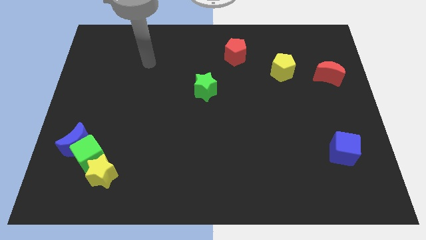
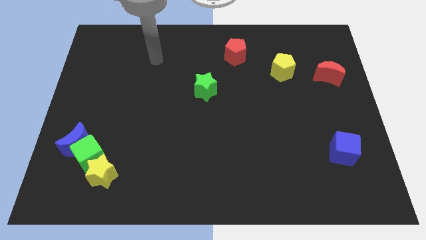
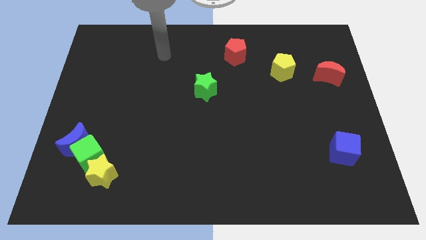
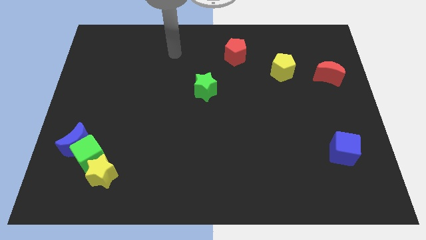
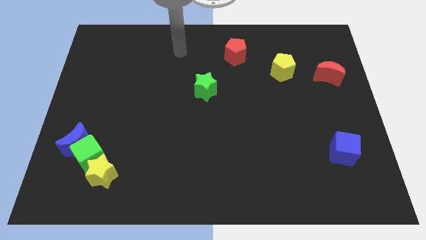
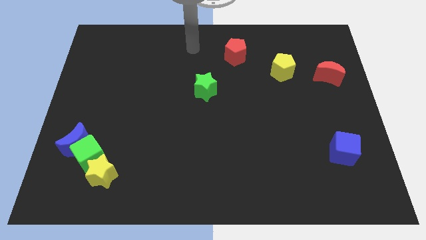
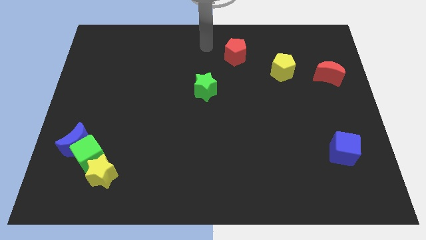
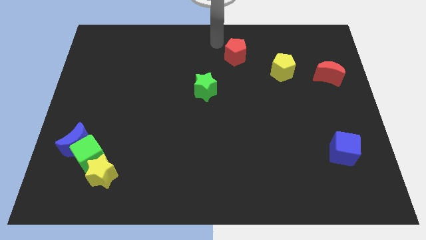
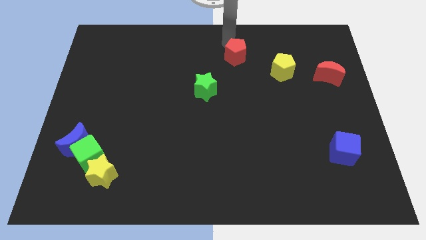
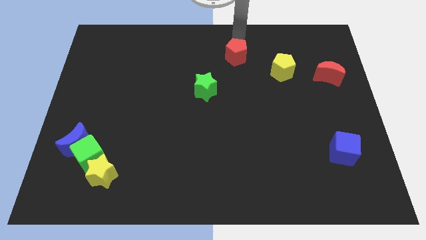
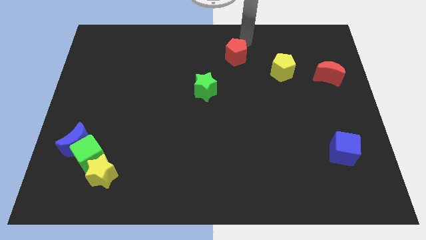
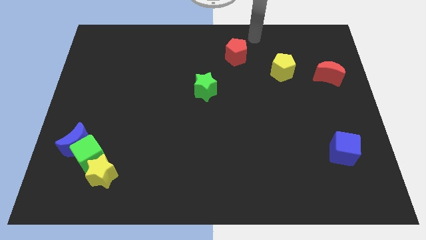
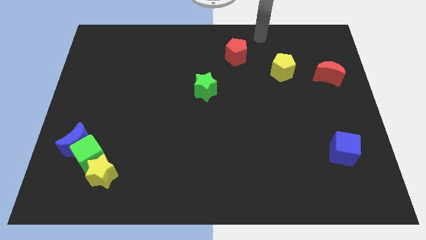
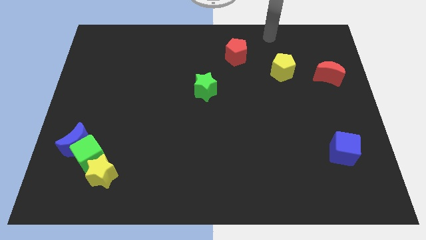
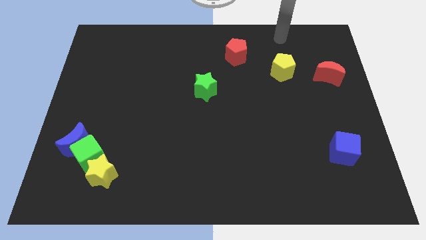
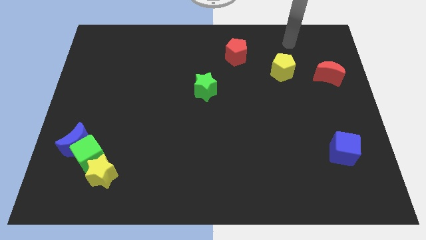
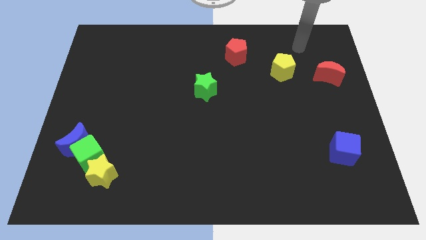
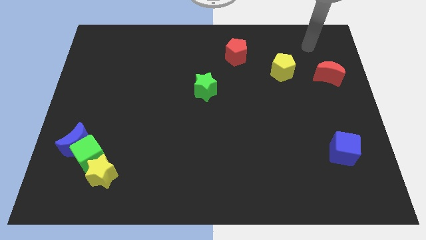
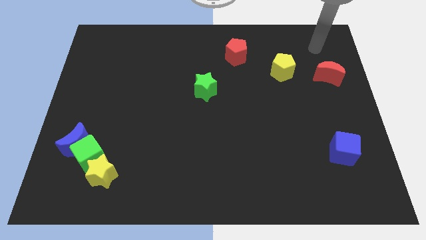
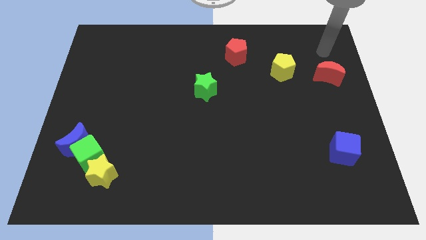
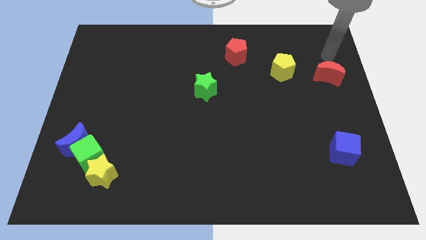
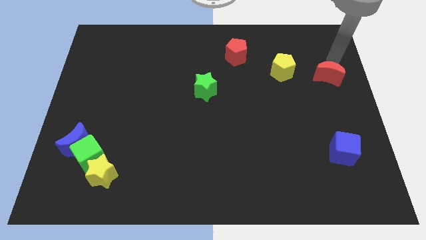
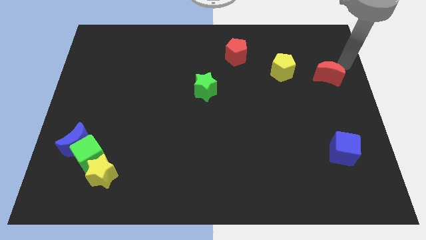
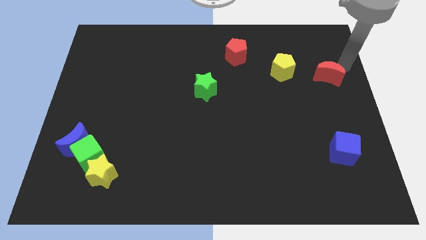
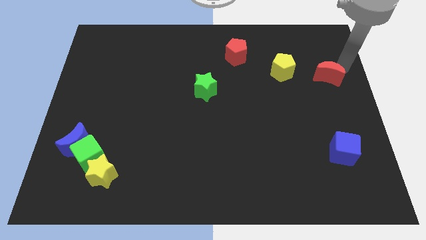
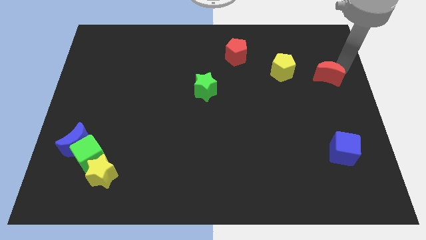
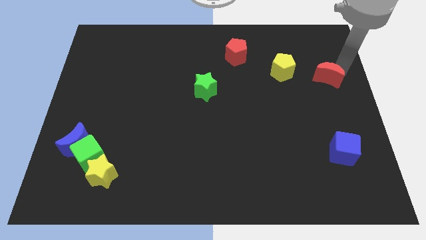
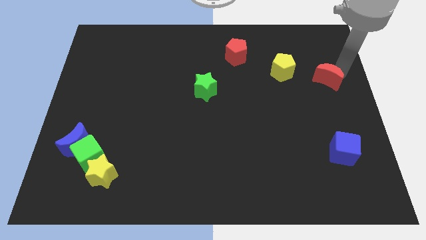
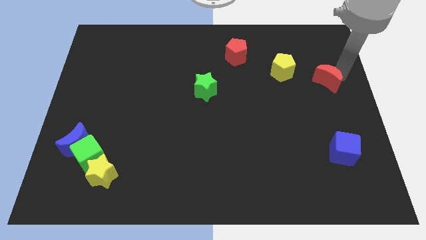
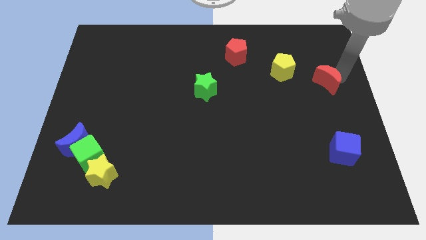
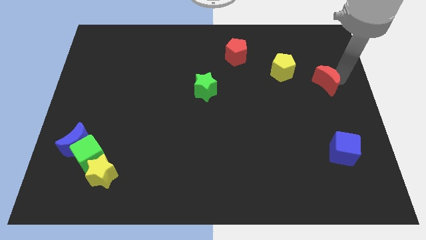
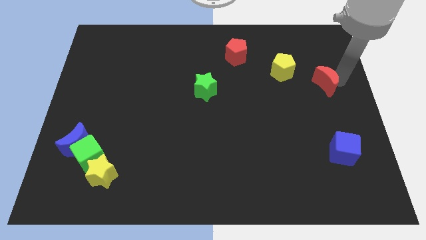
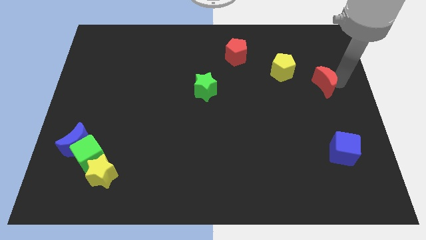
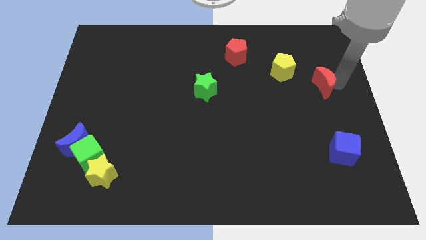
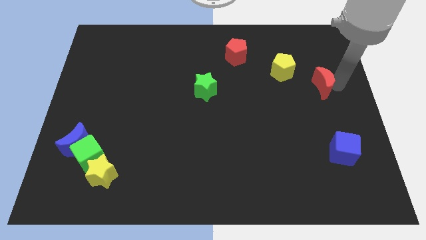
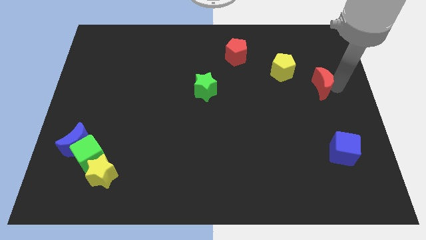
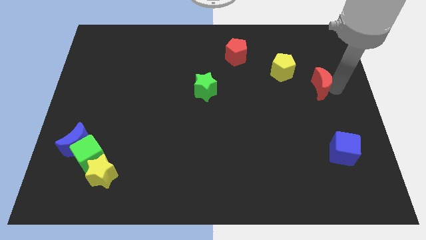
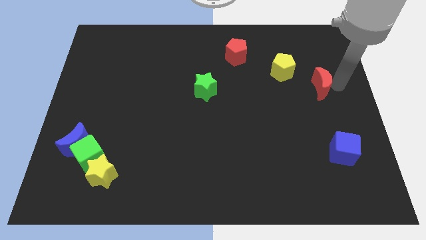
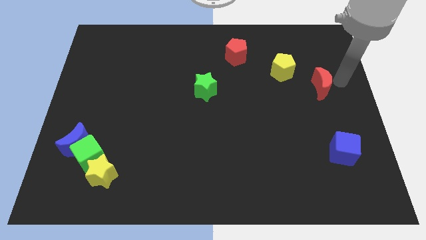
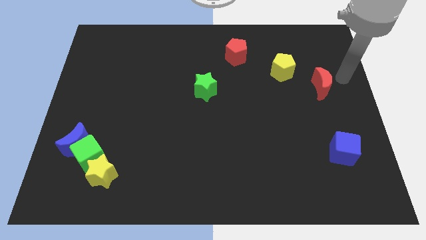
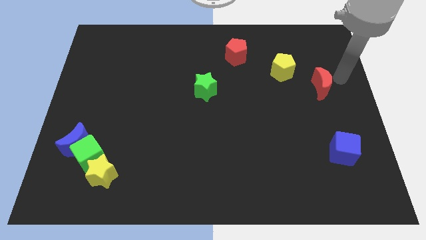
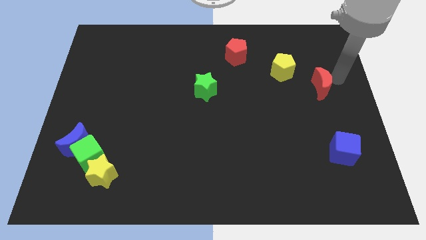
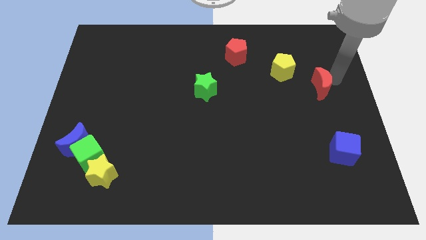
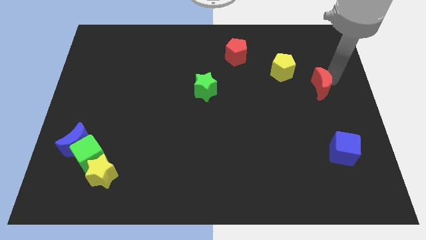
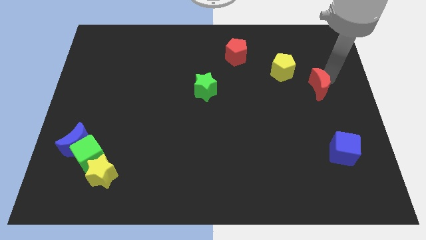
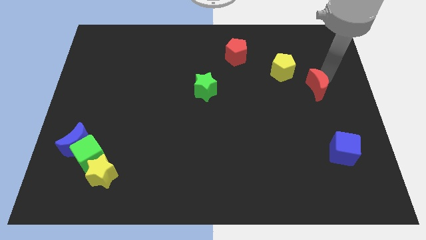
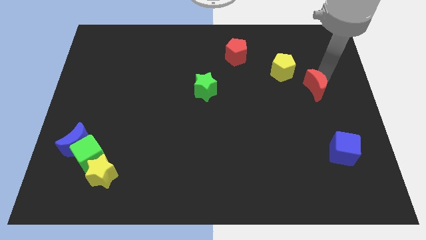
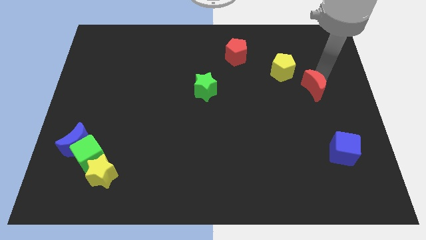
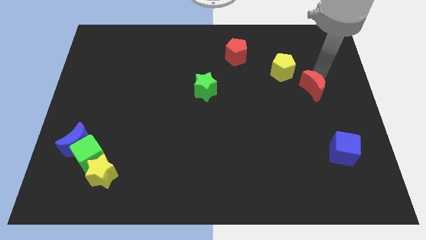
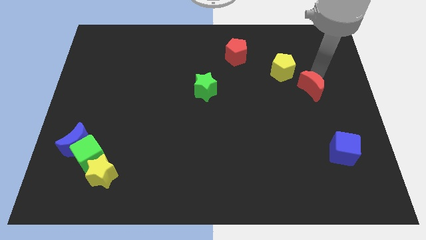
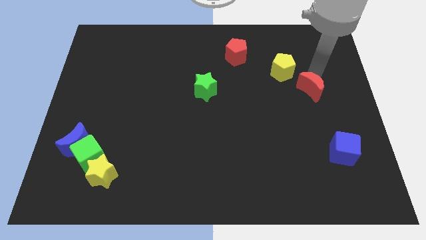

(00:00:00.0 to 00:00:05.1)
move the red moon diagonally downwards and to the left slightly

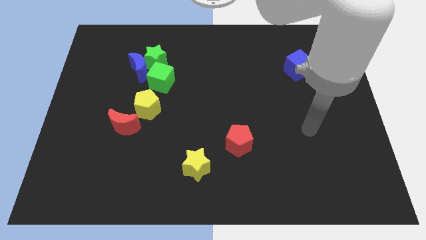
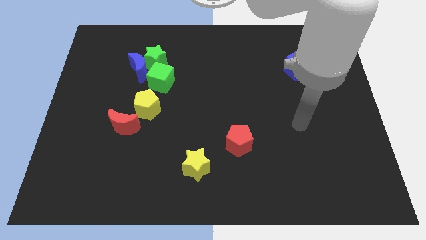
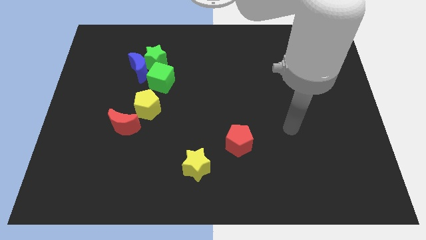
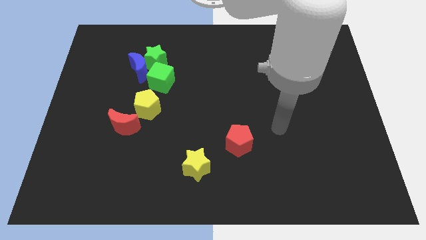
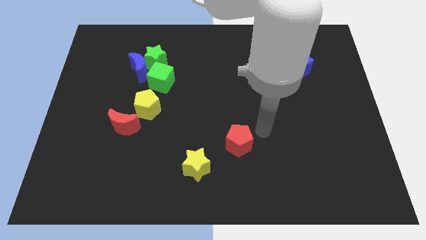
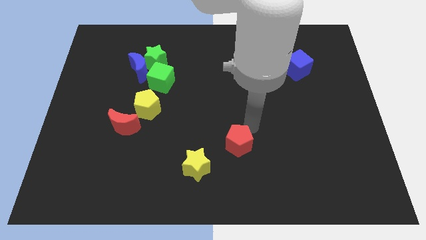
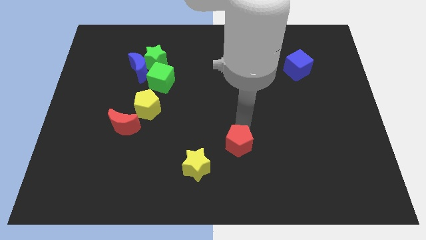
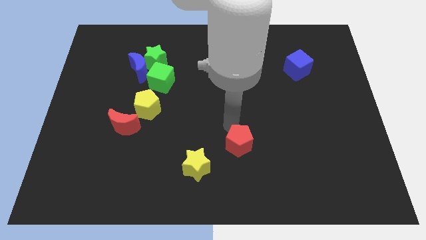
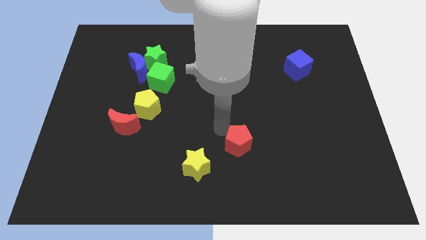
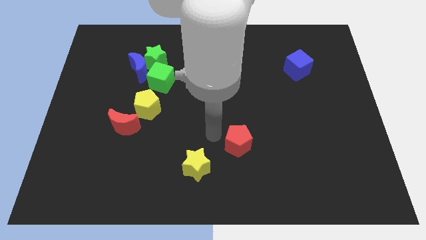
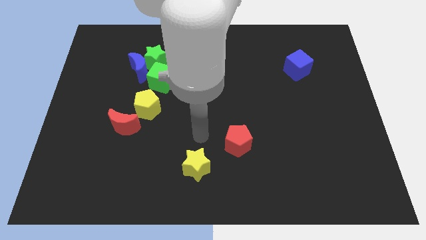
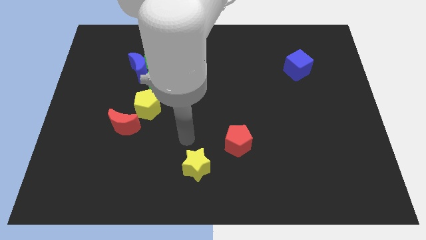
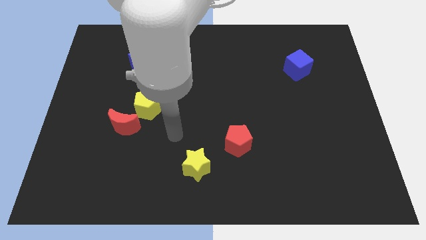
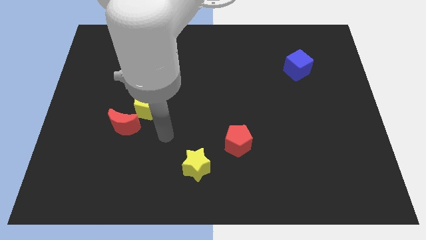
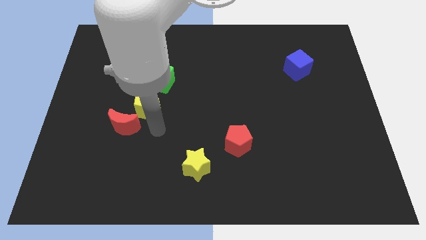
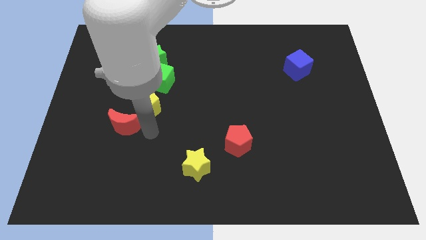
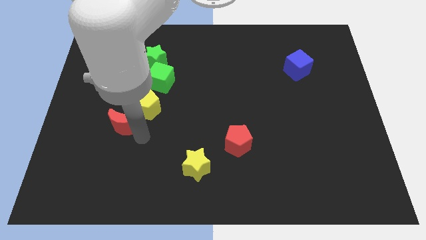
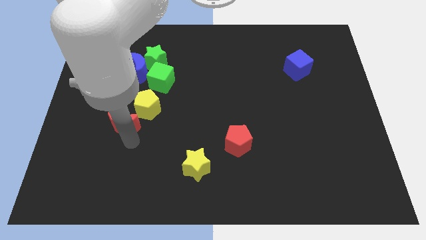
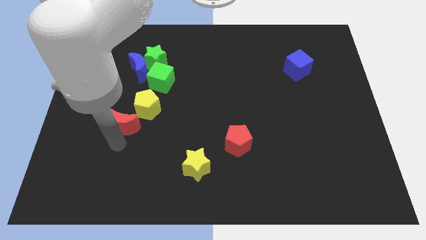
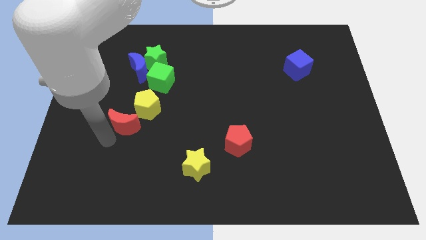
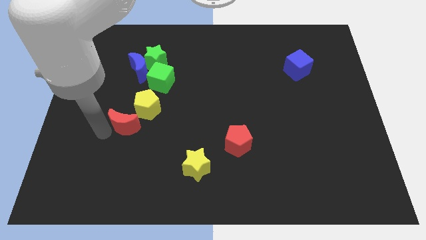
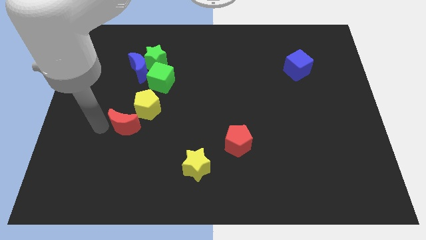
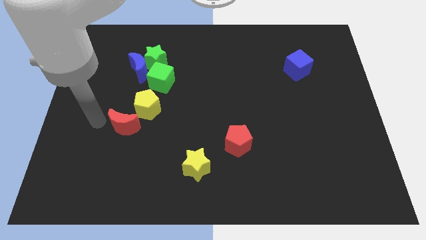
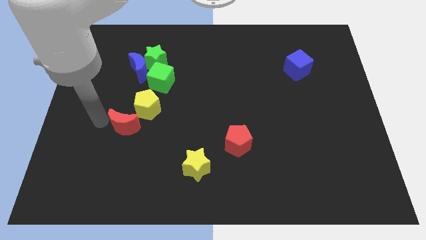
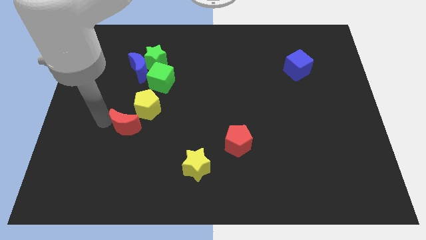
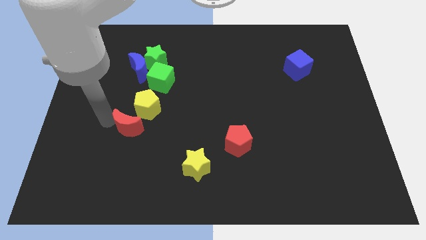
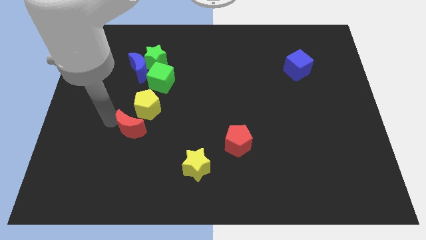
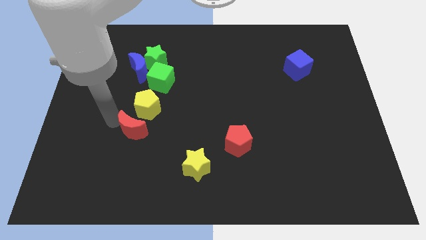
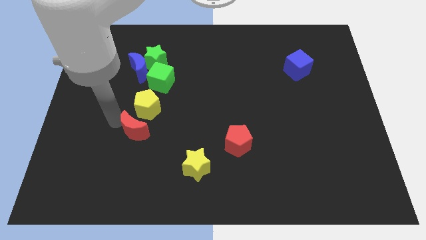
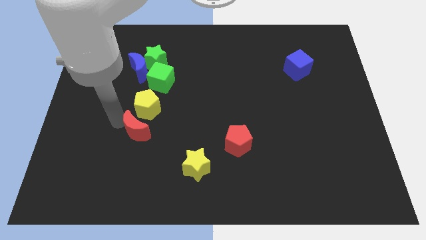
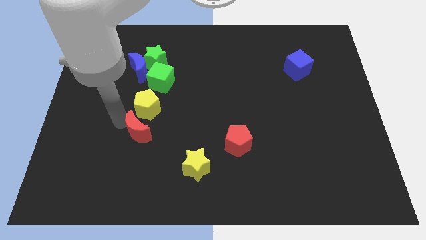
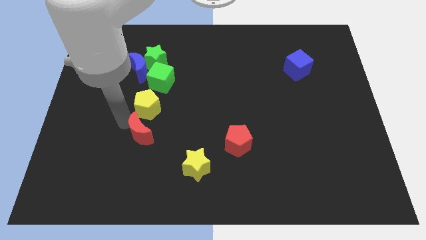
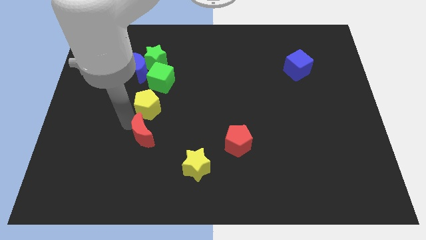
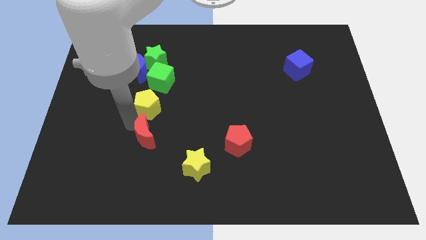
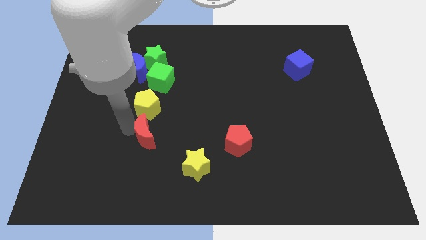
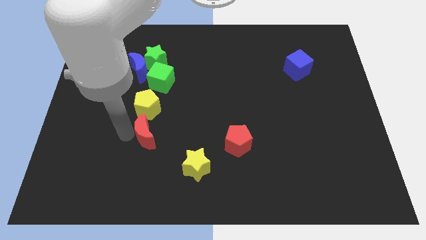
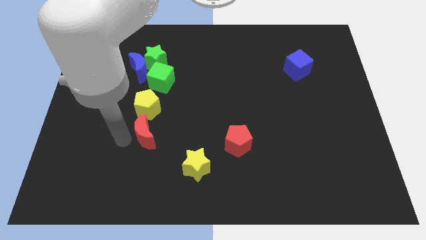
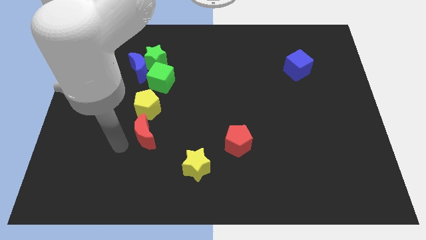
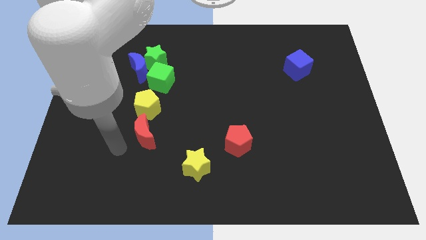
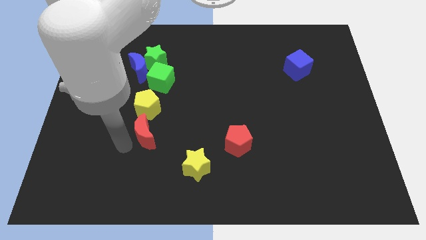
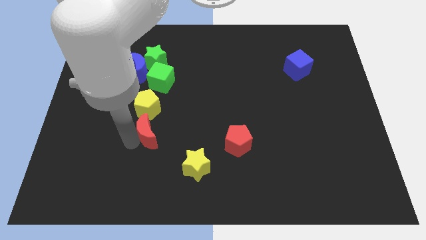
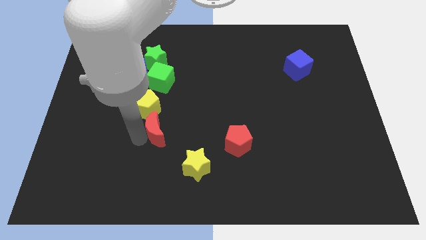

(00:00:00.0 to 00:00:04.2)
slide the red moon right somewhat
